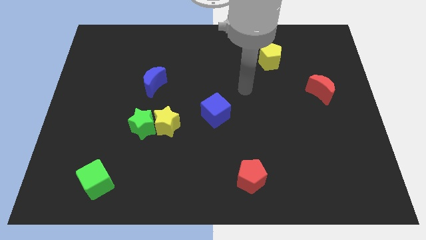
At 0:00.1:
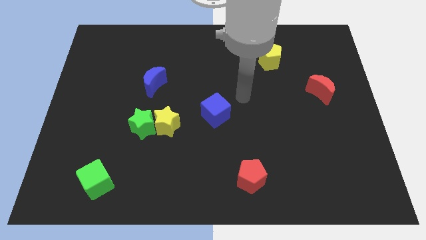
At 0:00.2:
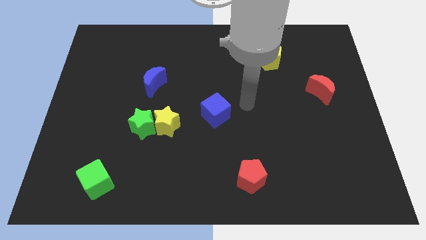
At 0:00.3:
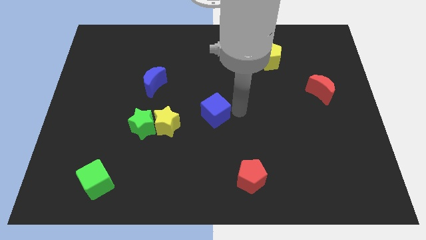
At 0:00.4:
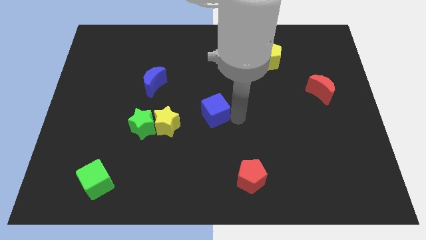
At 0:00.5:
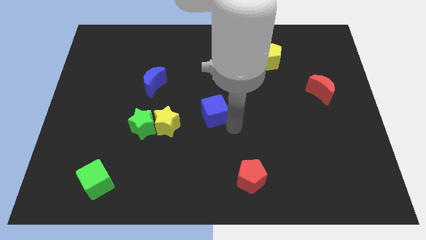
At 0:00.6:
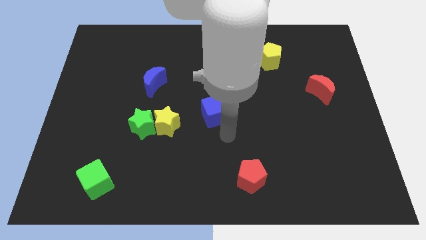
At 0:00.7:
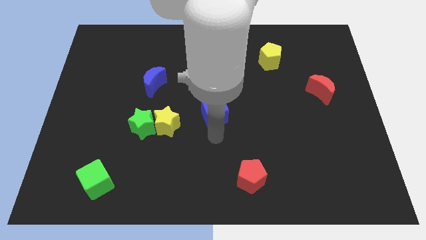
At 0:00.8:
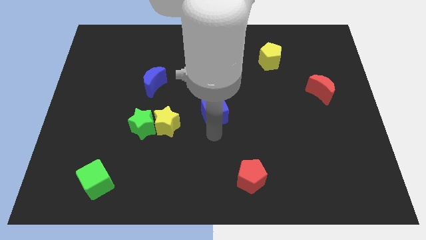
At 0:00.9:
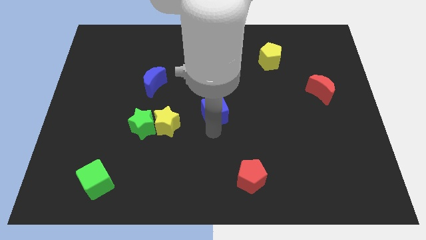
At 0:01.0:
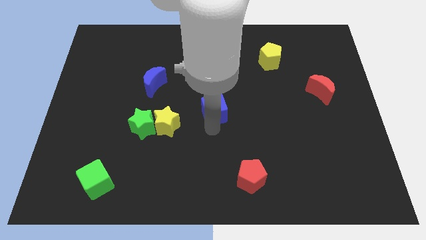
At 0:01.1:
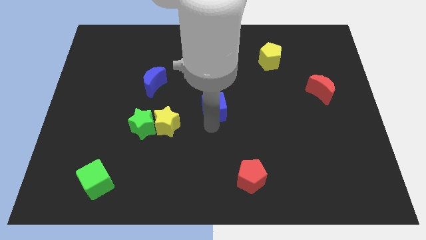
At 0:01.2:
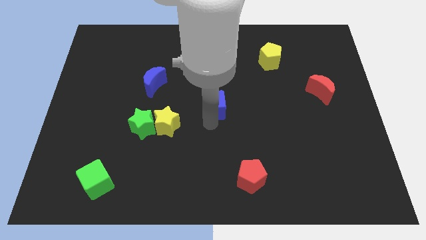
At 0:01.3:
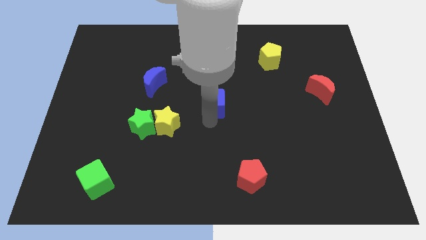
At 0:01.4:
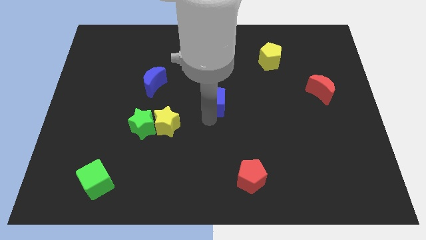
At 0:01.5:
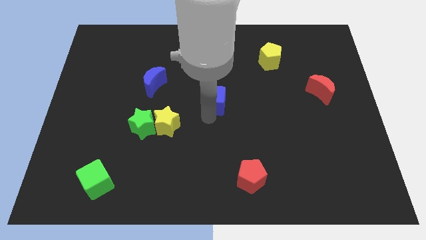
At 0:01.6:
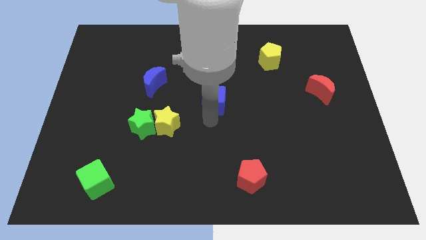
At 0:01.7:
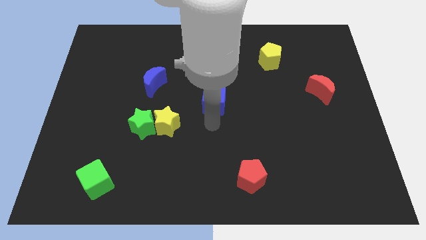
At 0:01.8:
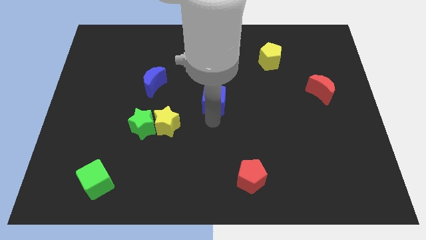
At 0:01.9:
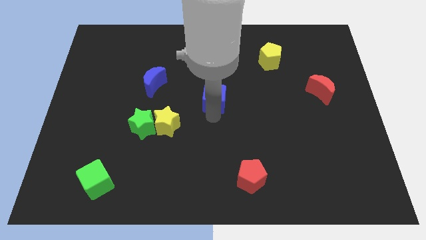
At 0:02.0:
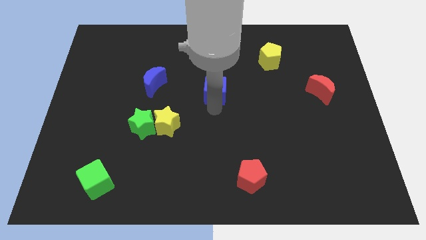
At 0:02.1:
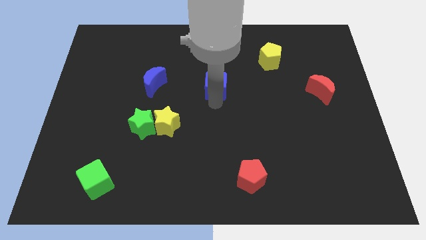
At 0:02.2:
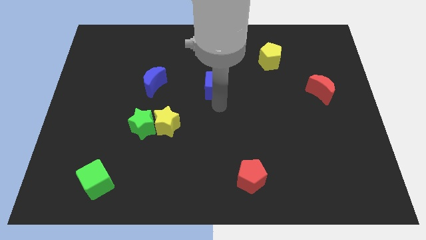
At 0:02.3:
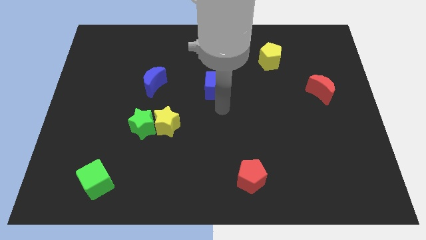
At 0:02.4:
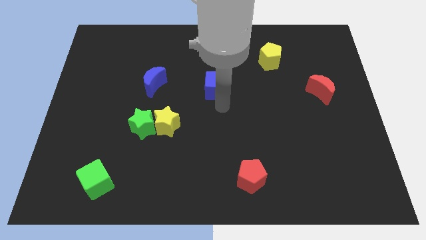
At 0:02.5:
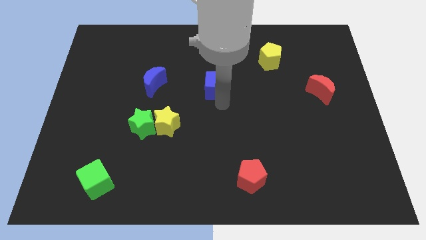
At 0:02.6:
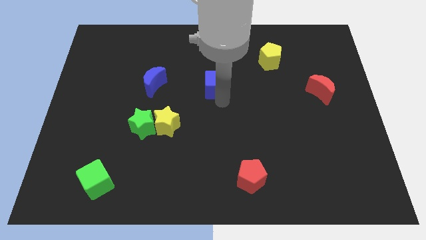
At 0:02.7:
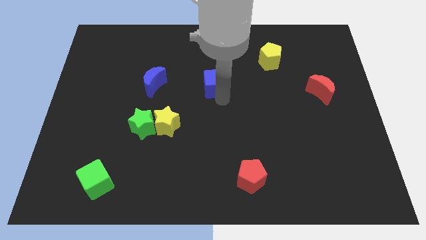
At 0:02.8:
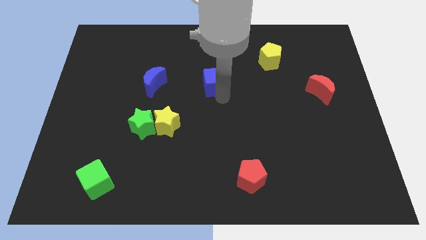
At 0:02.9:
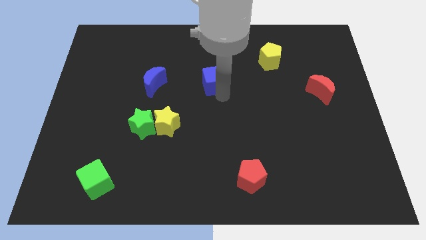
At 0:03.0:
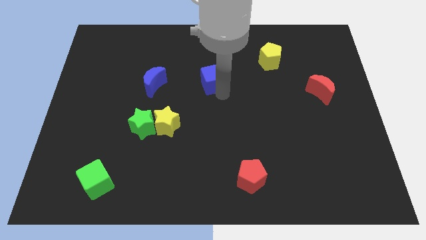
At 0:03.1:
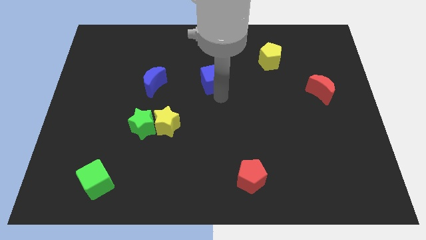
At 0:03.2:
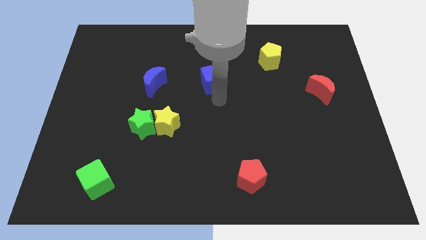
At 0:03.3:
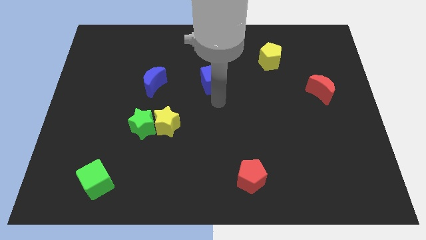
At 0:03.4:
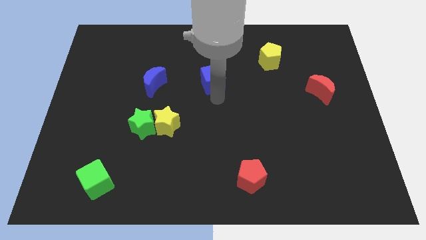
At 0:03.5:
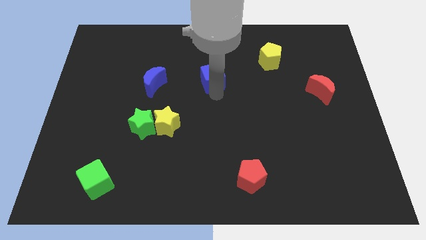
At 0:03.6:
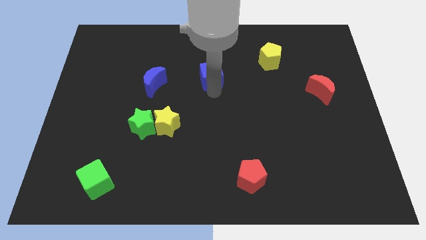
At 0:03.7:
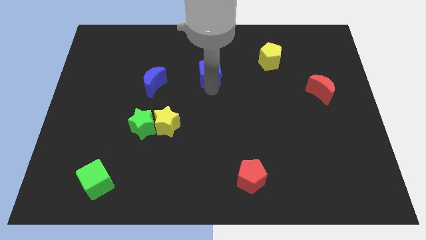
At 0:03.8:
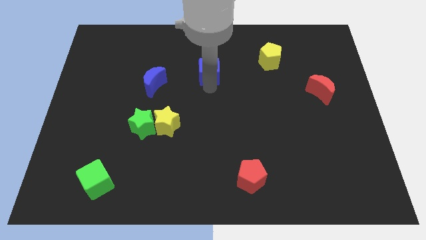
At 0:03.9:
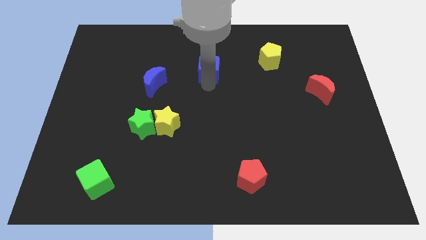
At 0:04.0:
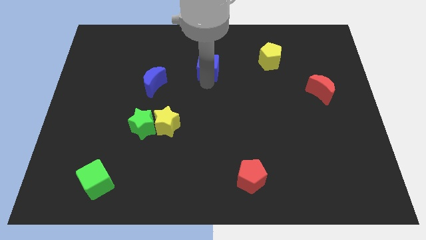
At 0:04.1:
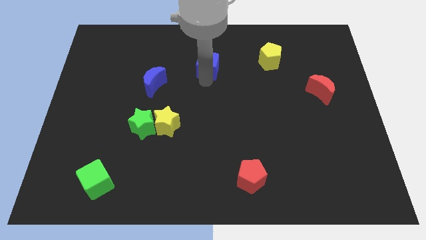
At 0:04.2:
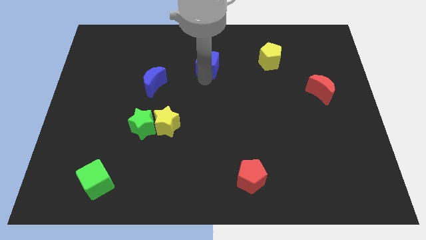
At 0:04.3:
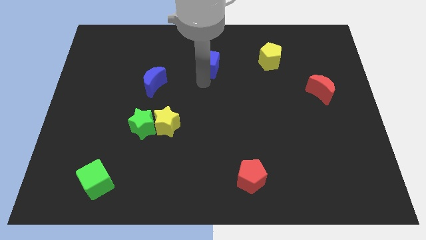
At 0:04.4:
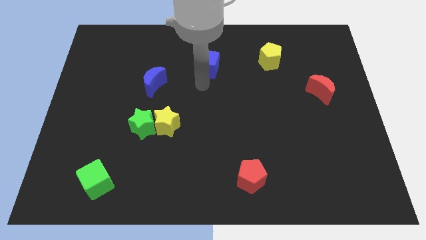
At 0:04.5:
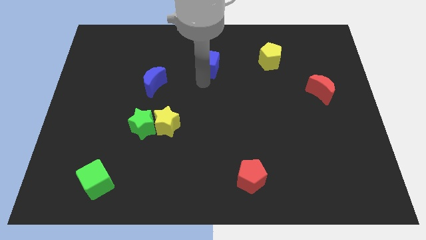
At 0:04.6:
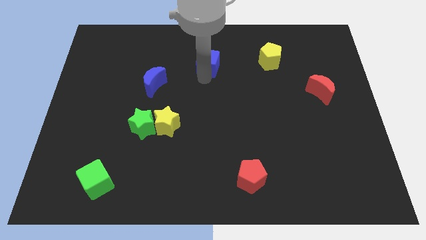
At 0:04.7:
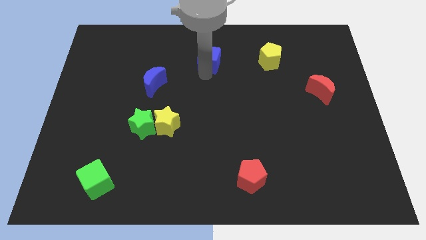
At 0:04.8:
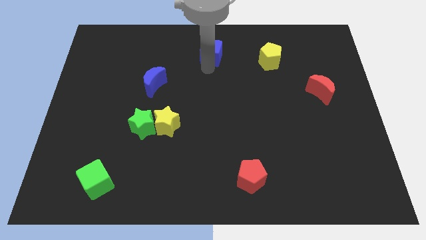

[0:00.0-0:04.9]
slide the blue cube to the top side

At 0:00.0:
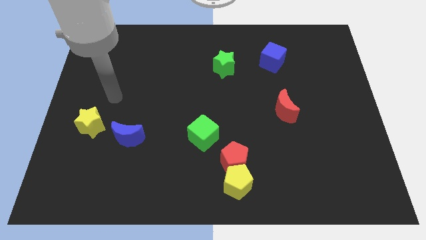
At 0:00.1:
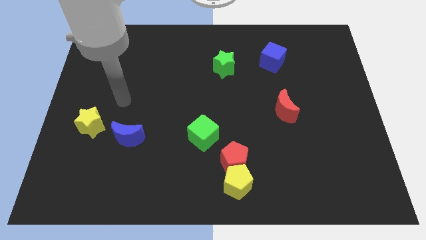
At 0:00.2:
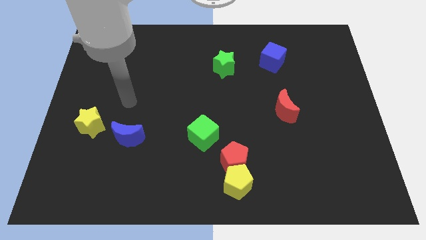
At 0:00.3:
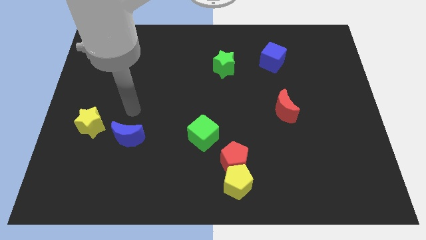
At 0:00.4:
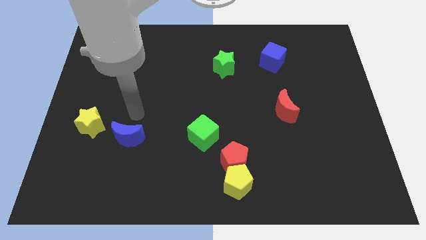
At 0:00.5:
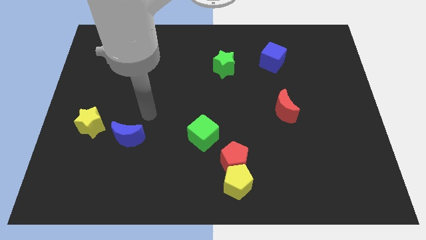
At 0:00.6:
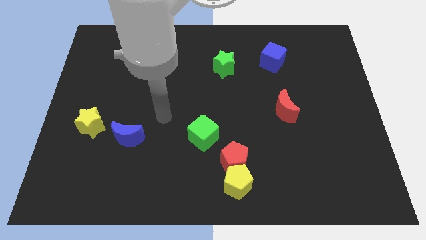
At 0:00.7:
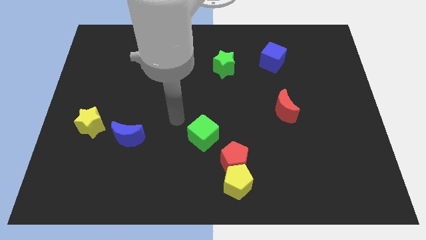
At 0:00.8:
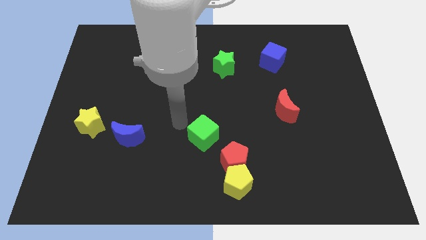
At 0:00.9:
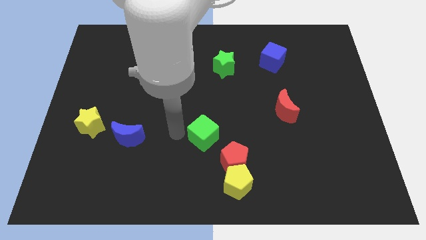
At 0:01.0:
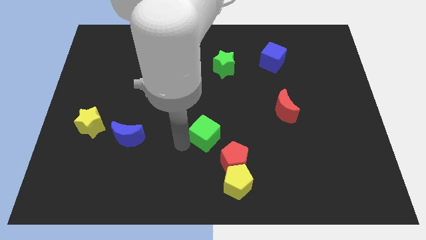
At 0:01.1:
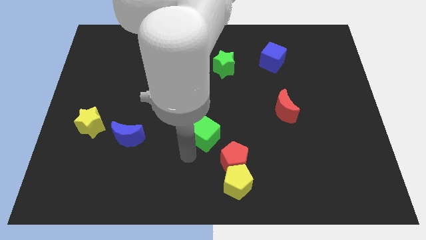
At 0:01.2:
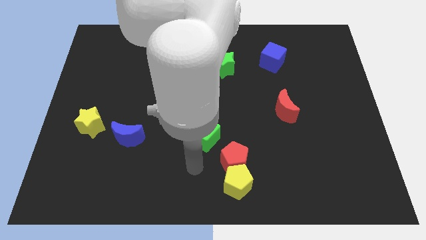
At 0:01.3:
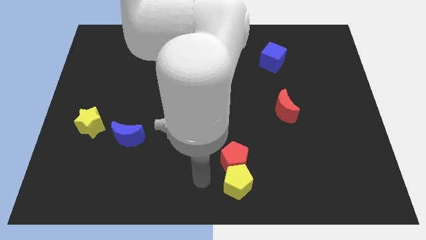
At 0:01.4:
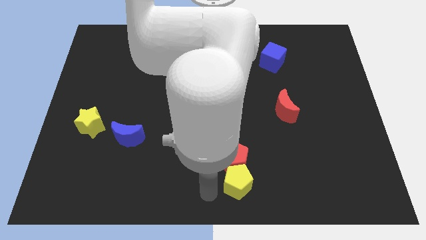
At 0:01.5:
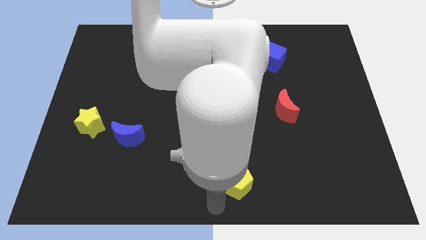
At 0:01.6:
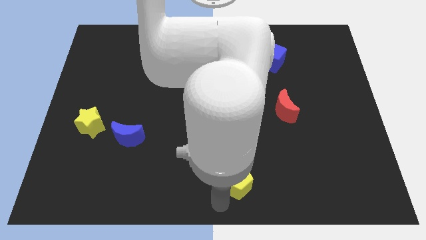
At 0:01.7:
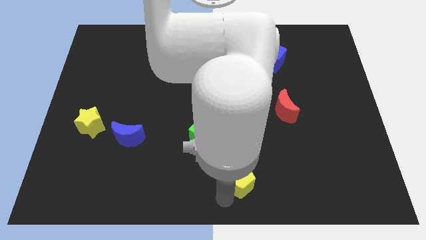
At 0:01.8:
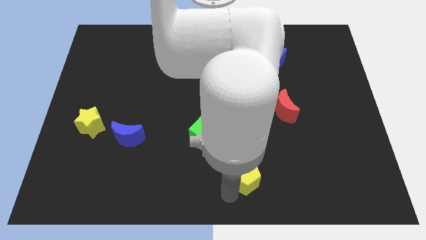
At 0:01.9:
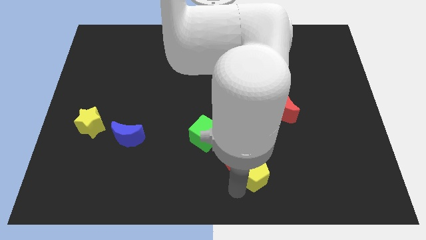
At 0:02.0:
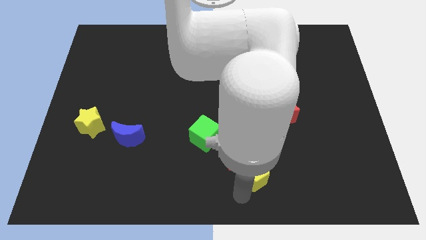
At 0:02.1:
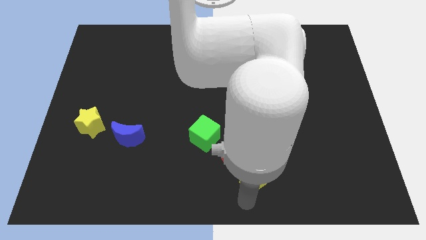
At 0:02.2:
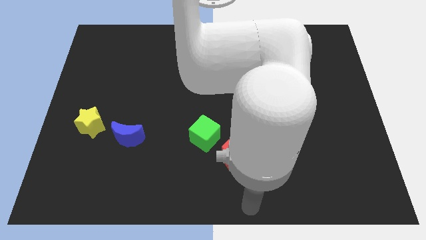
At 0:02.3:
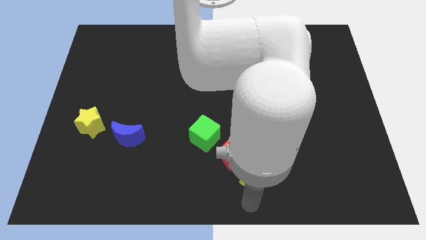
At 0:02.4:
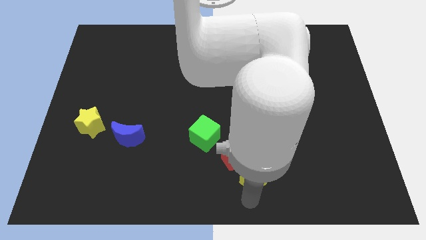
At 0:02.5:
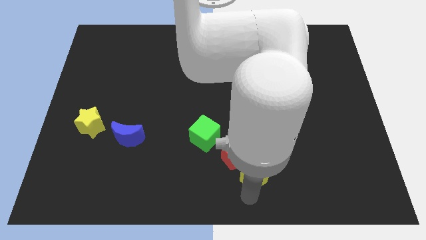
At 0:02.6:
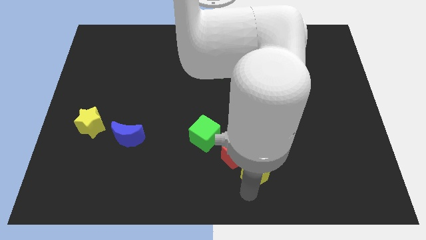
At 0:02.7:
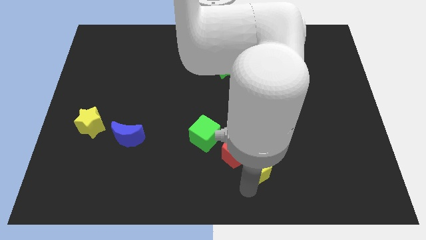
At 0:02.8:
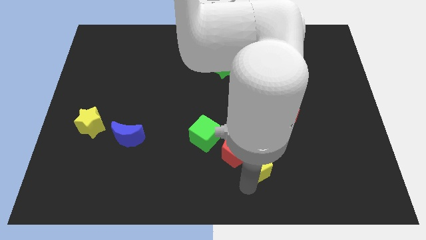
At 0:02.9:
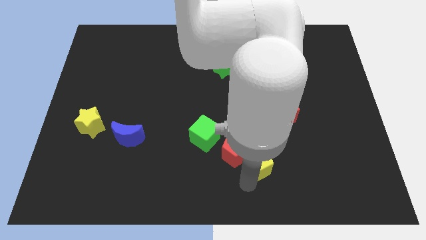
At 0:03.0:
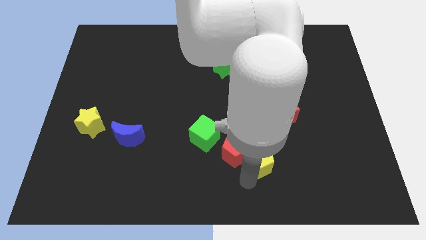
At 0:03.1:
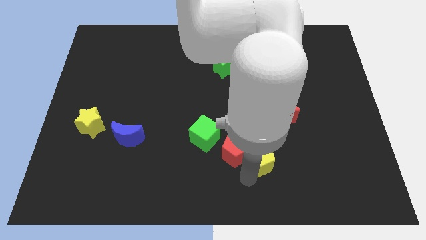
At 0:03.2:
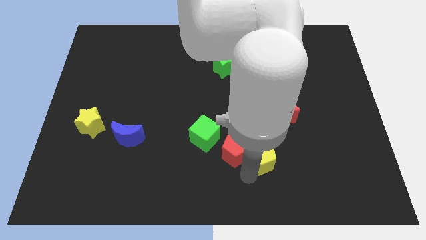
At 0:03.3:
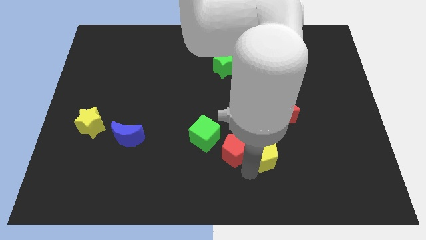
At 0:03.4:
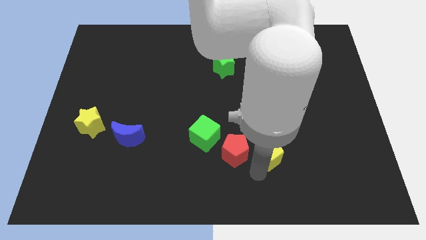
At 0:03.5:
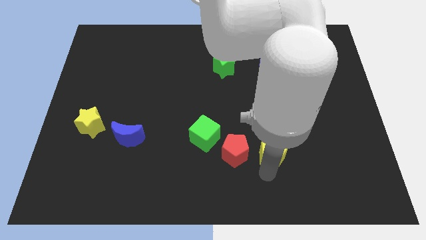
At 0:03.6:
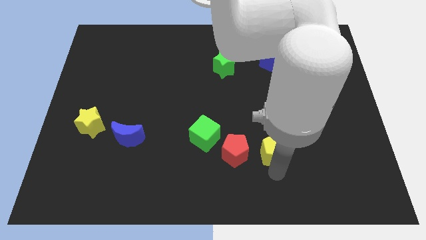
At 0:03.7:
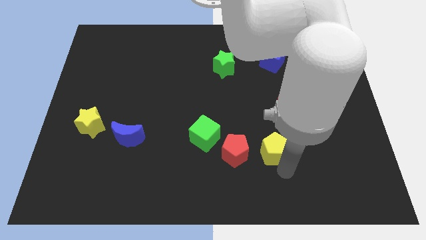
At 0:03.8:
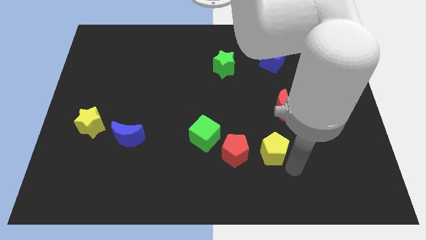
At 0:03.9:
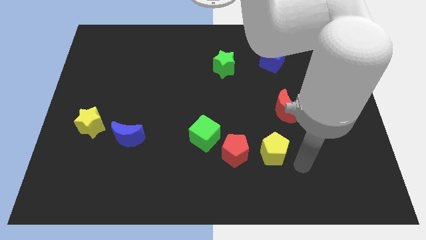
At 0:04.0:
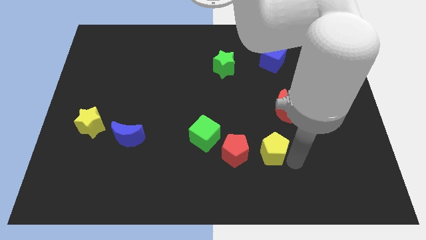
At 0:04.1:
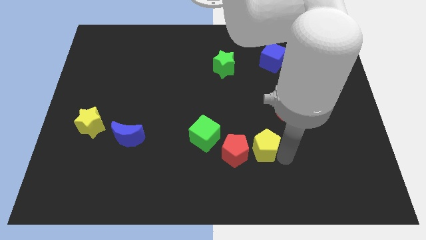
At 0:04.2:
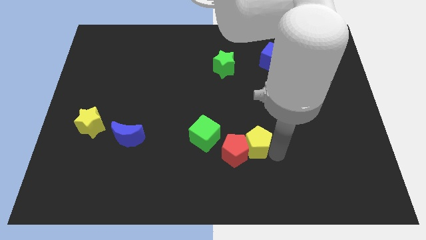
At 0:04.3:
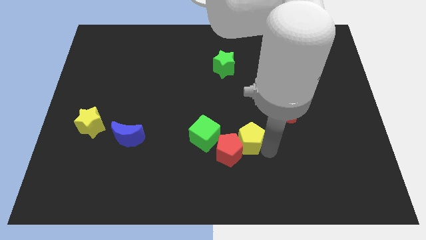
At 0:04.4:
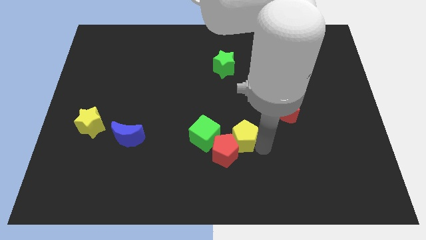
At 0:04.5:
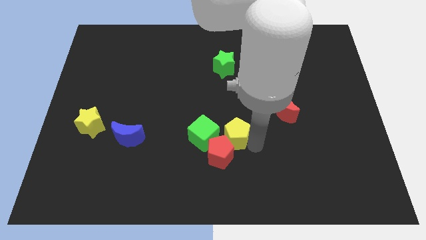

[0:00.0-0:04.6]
put the yellow pentagon to the middle
